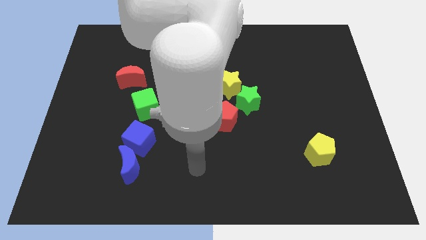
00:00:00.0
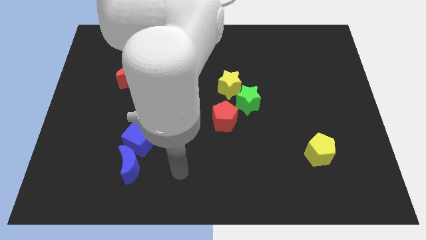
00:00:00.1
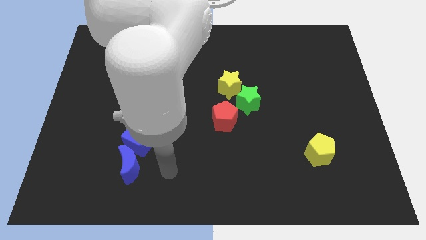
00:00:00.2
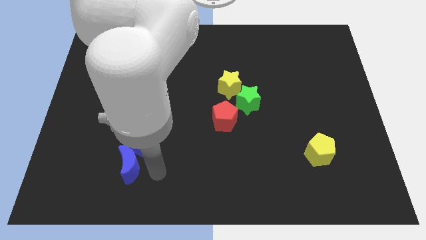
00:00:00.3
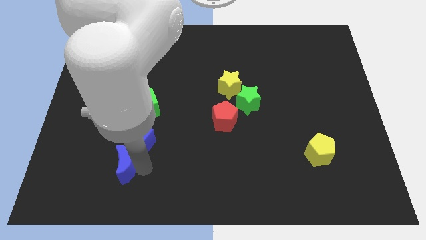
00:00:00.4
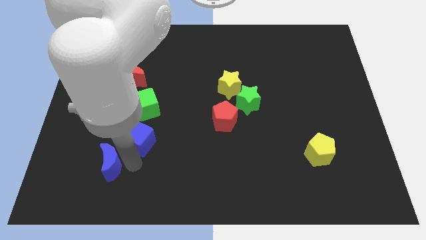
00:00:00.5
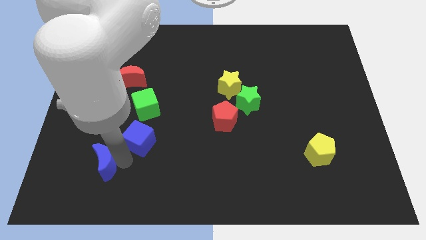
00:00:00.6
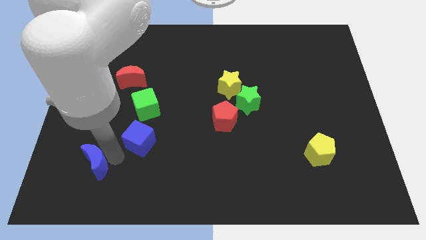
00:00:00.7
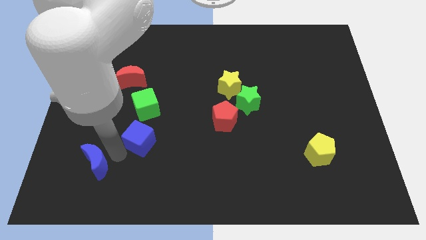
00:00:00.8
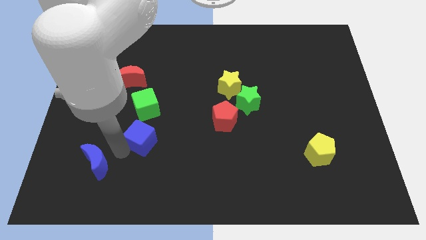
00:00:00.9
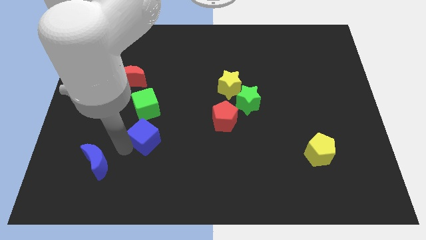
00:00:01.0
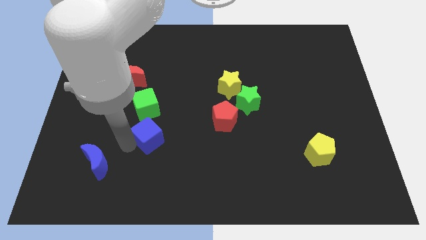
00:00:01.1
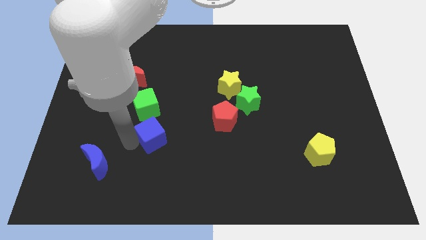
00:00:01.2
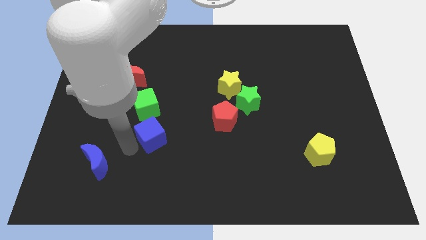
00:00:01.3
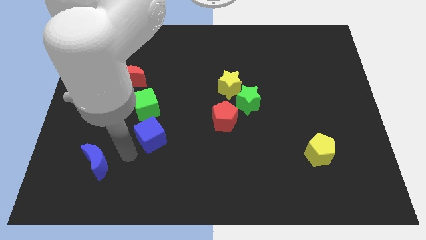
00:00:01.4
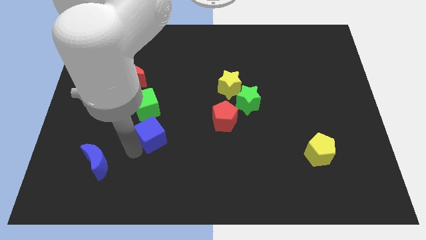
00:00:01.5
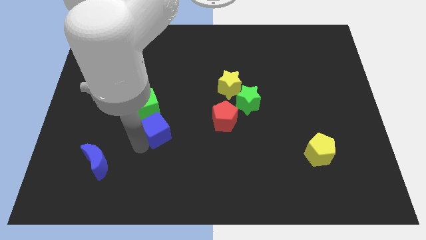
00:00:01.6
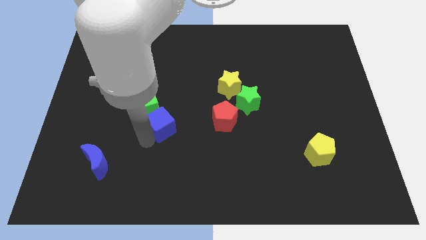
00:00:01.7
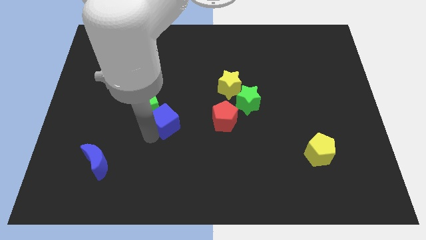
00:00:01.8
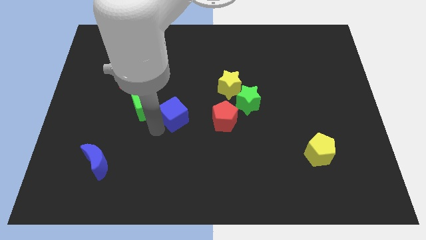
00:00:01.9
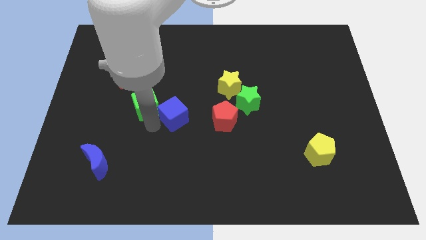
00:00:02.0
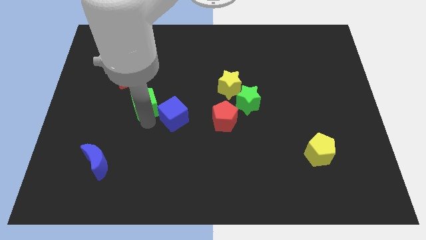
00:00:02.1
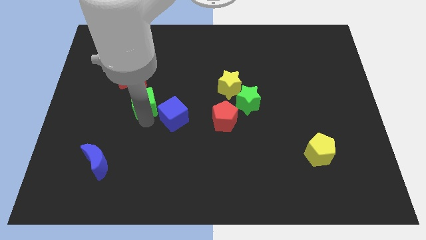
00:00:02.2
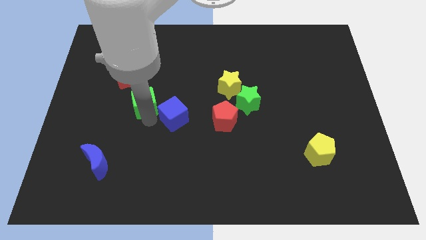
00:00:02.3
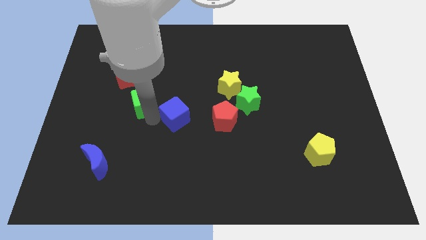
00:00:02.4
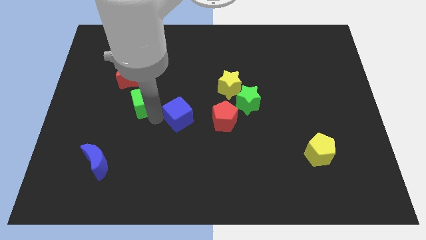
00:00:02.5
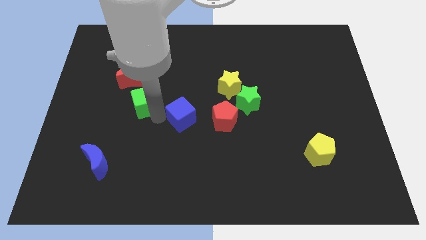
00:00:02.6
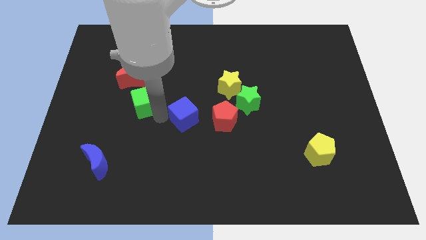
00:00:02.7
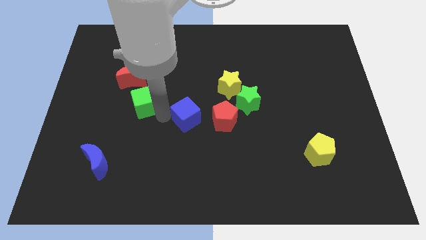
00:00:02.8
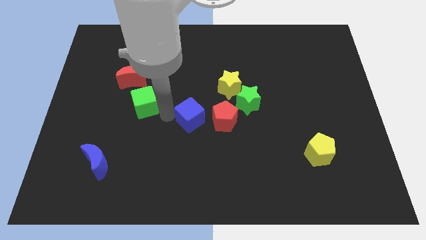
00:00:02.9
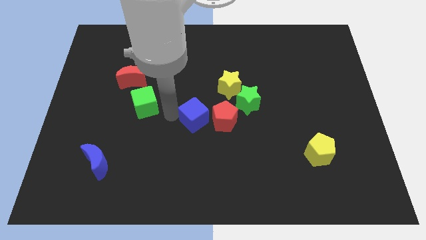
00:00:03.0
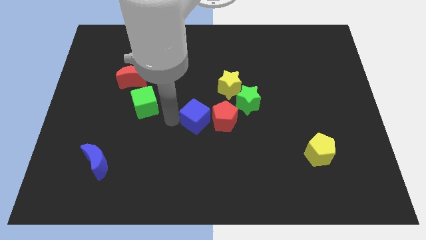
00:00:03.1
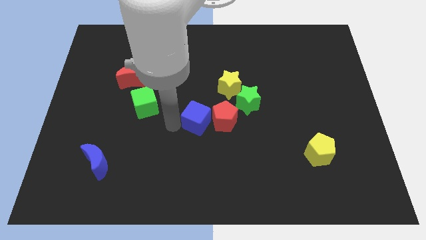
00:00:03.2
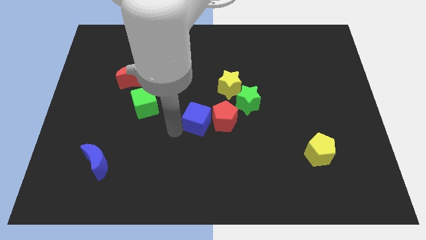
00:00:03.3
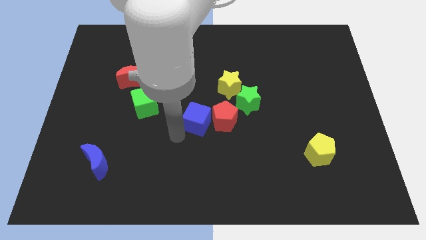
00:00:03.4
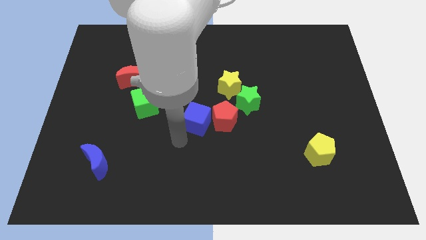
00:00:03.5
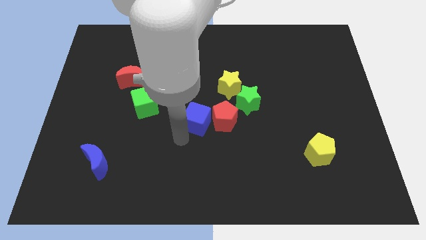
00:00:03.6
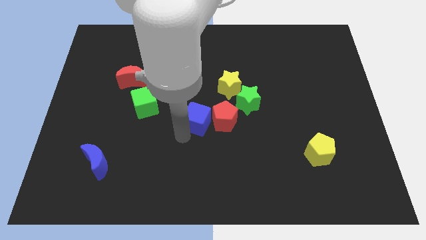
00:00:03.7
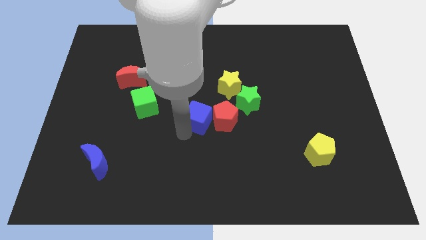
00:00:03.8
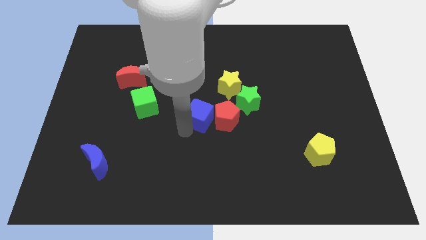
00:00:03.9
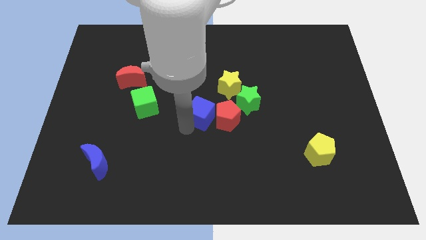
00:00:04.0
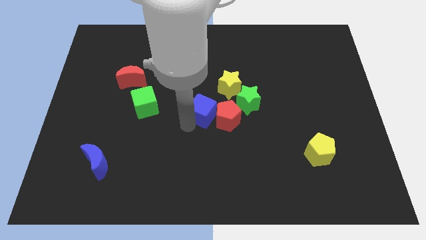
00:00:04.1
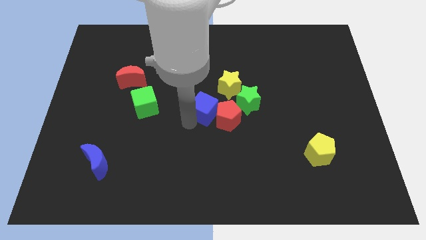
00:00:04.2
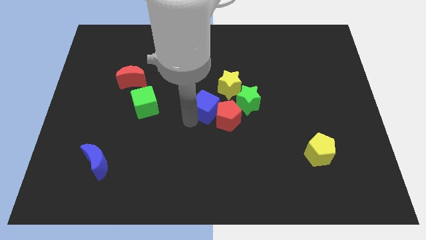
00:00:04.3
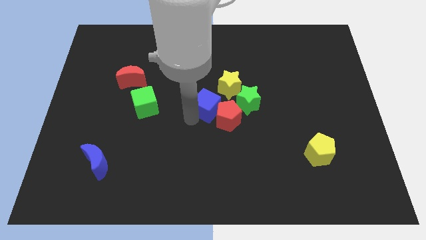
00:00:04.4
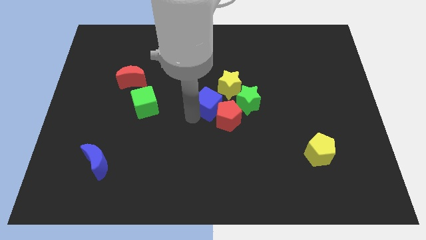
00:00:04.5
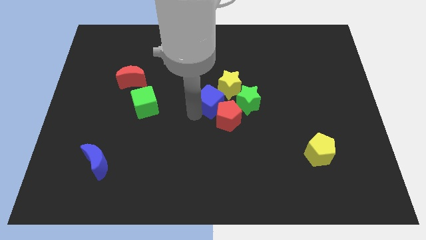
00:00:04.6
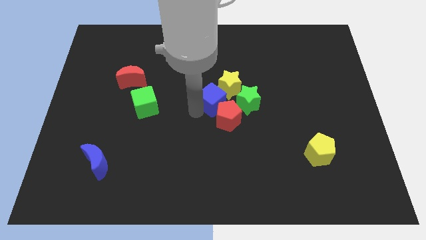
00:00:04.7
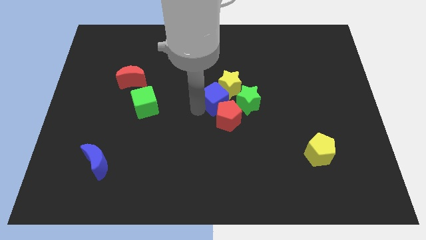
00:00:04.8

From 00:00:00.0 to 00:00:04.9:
put the blue cube to the yellow star

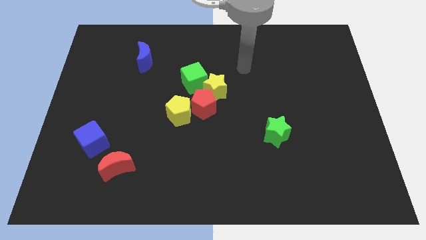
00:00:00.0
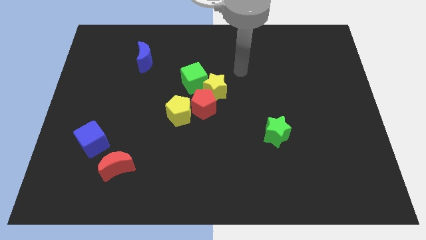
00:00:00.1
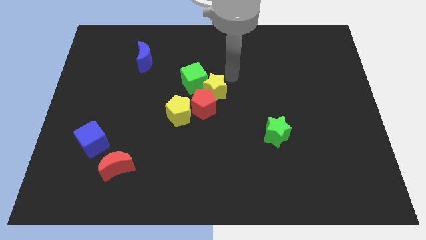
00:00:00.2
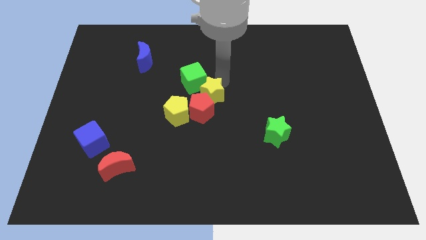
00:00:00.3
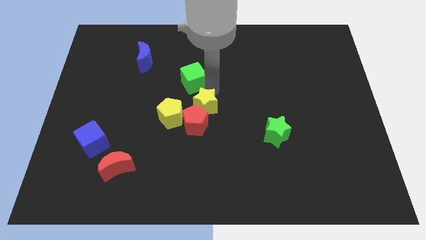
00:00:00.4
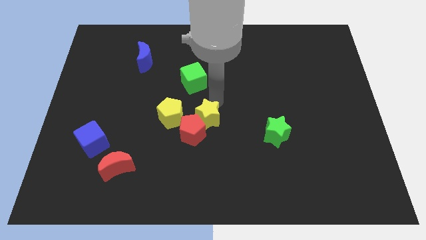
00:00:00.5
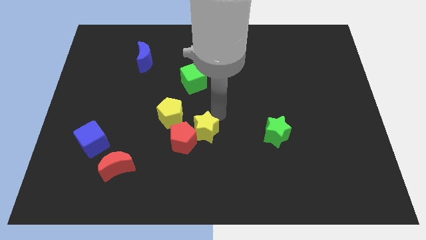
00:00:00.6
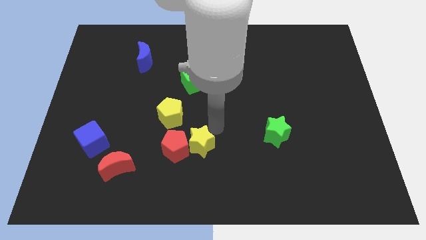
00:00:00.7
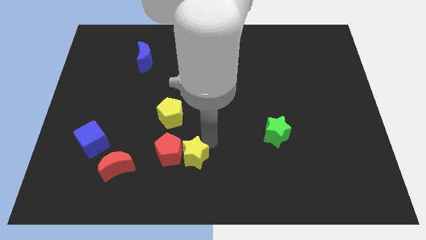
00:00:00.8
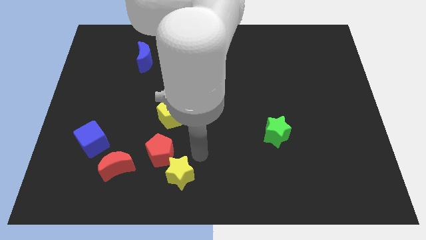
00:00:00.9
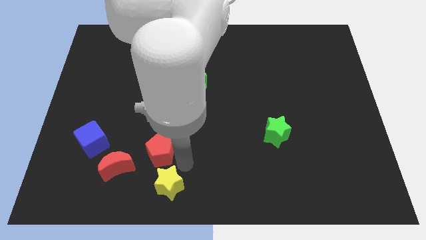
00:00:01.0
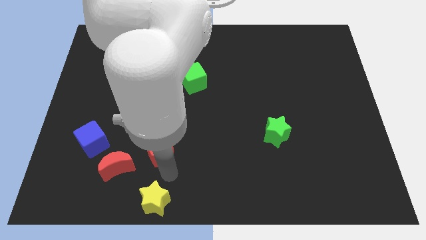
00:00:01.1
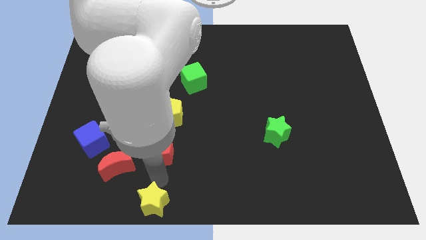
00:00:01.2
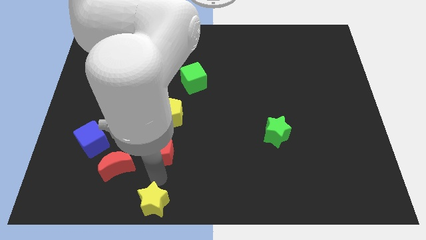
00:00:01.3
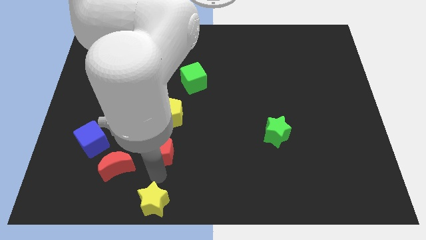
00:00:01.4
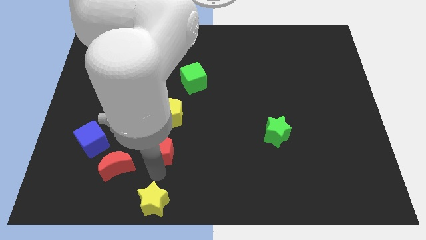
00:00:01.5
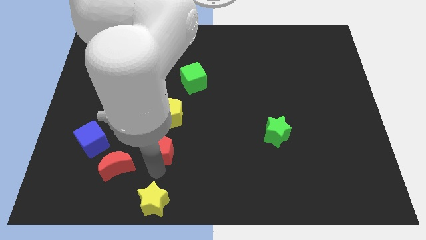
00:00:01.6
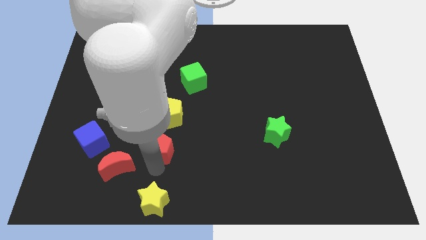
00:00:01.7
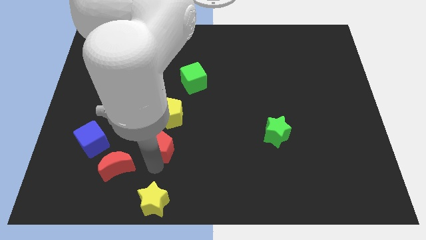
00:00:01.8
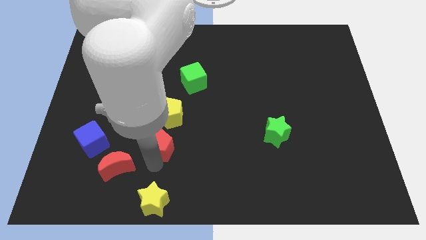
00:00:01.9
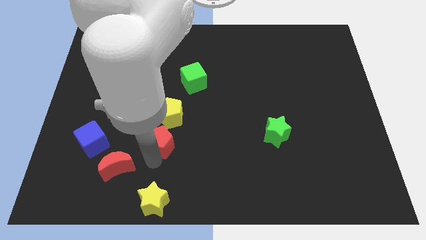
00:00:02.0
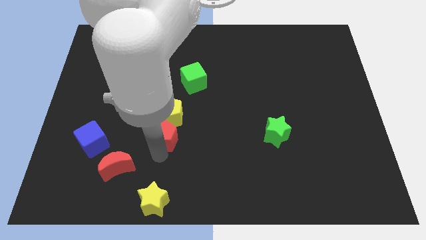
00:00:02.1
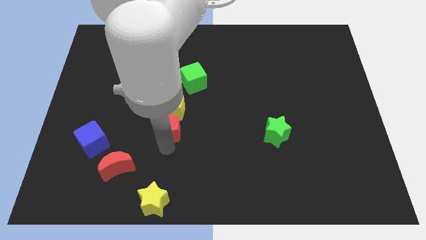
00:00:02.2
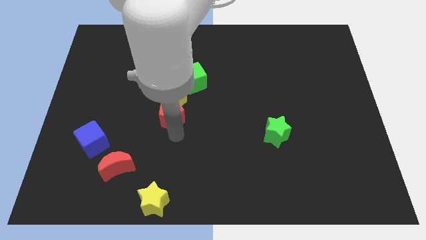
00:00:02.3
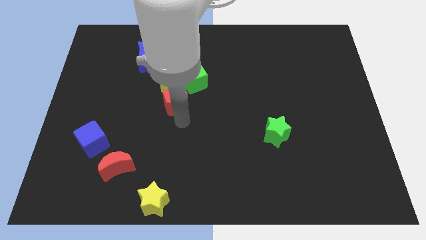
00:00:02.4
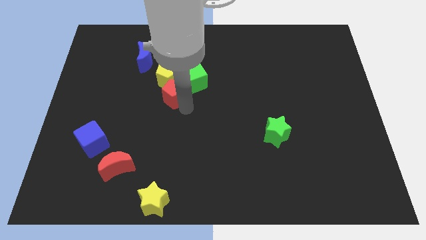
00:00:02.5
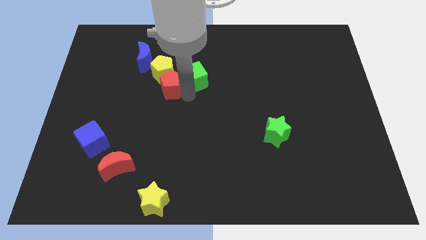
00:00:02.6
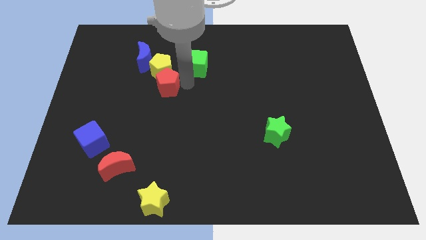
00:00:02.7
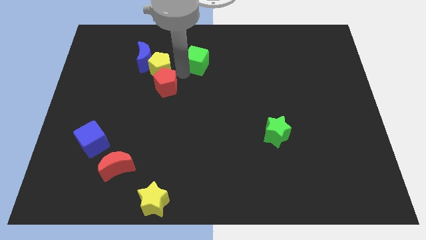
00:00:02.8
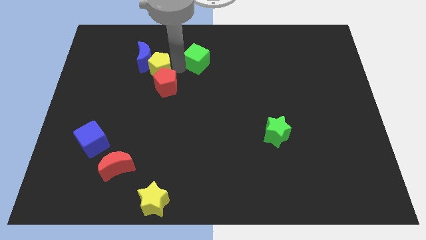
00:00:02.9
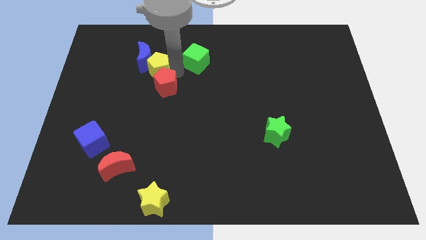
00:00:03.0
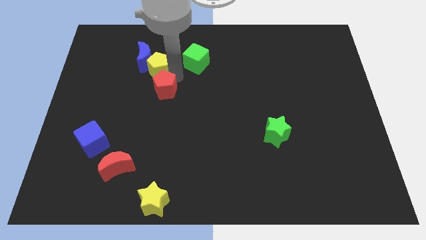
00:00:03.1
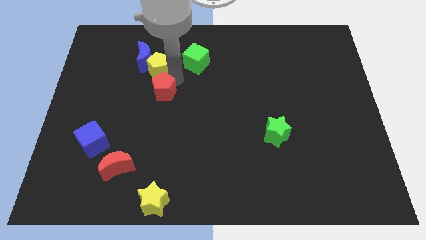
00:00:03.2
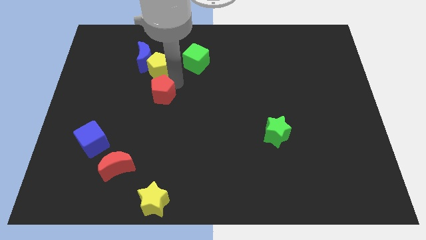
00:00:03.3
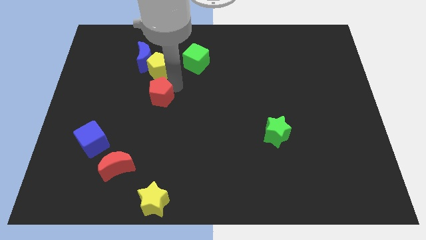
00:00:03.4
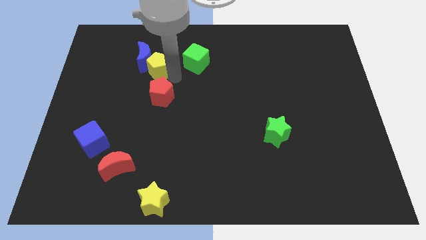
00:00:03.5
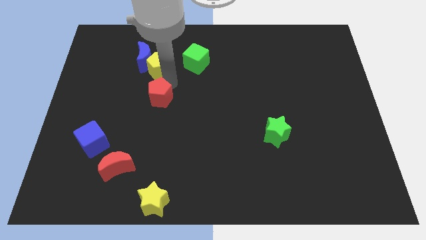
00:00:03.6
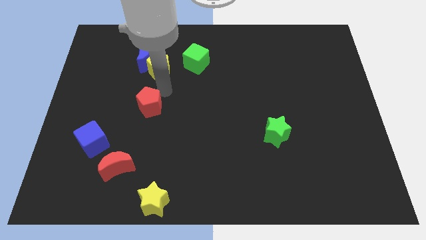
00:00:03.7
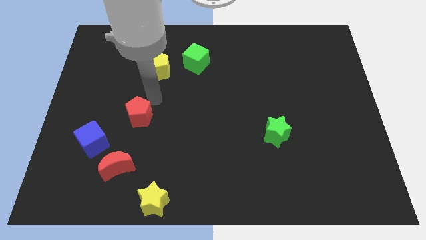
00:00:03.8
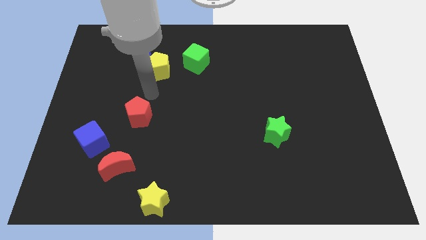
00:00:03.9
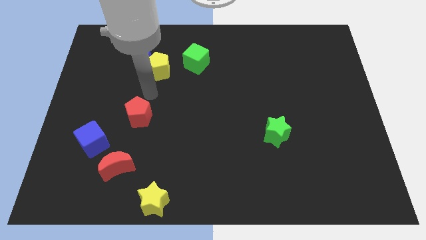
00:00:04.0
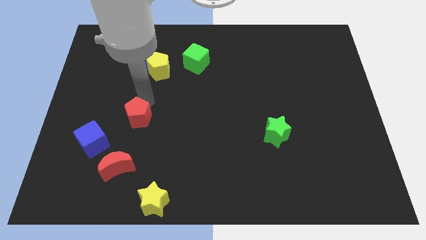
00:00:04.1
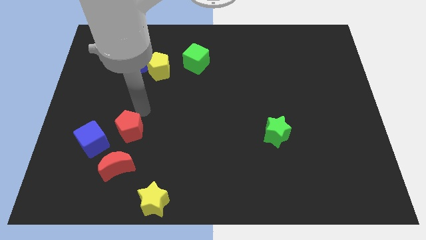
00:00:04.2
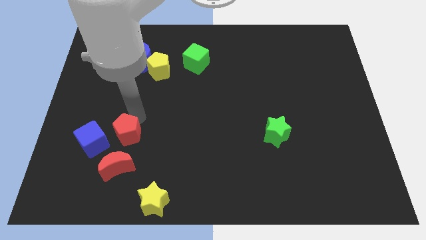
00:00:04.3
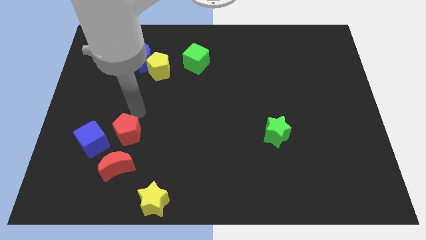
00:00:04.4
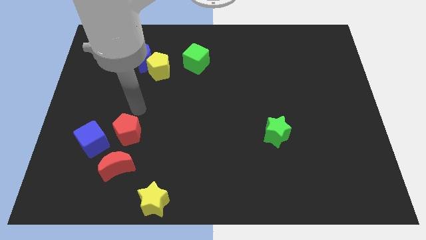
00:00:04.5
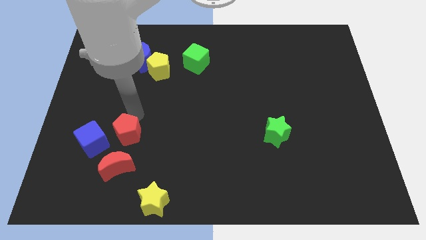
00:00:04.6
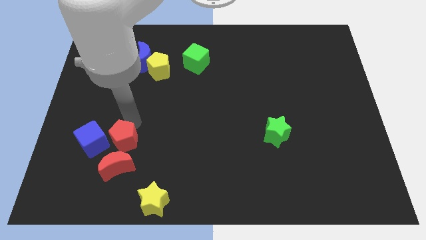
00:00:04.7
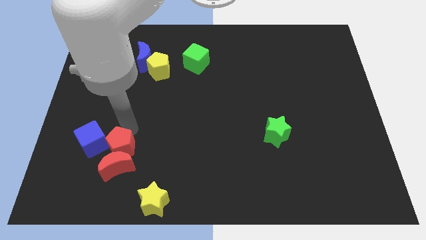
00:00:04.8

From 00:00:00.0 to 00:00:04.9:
put the red pentagon next to the red moon
